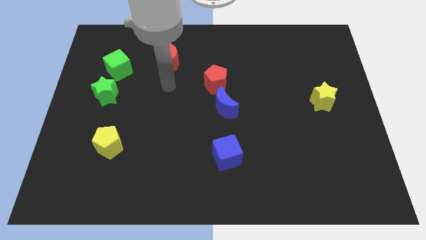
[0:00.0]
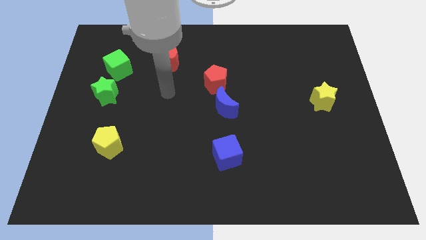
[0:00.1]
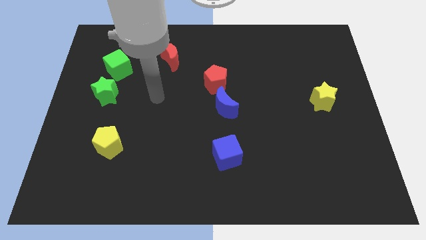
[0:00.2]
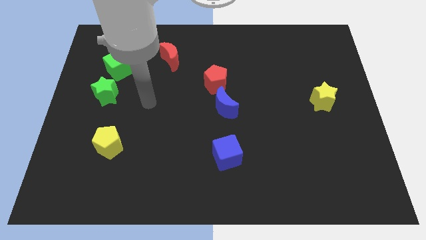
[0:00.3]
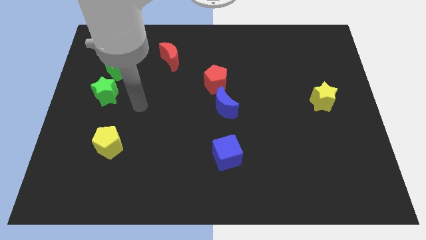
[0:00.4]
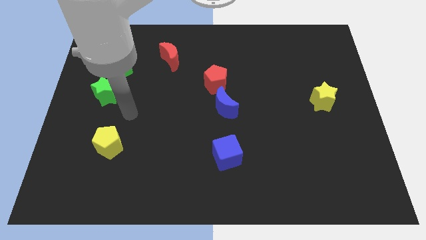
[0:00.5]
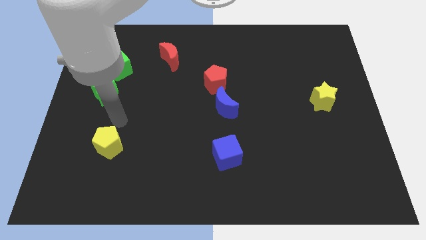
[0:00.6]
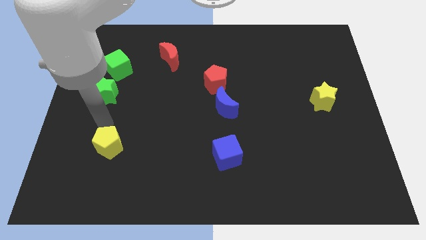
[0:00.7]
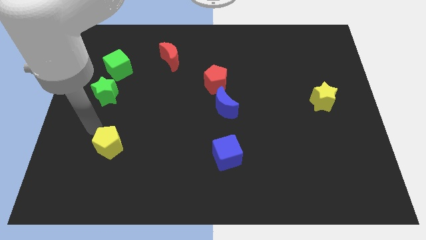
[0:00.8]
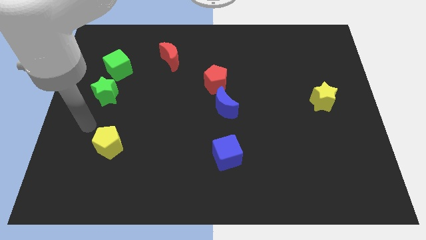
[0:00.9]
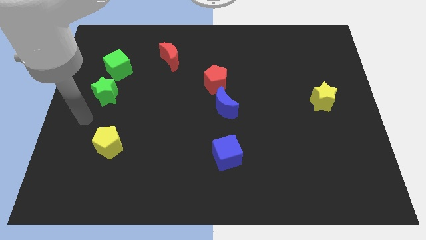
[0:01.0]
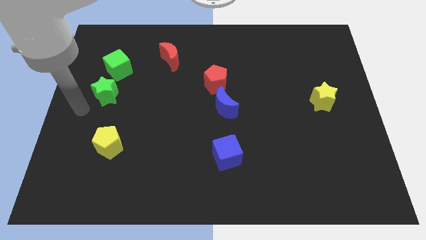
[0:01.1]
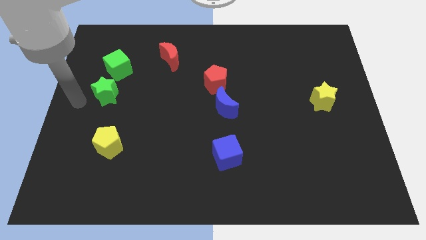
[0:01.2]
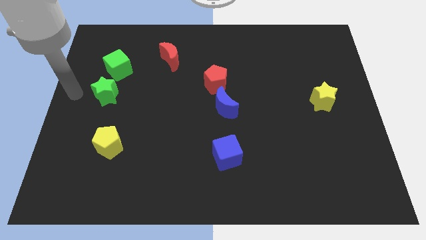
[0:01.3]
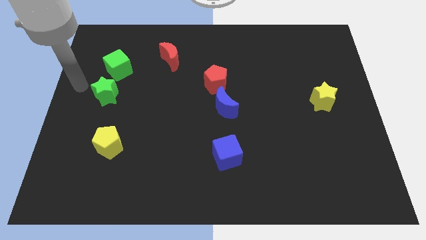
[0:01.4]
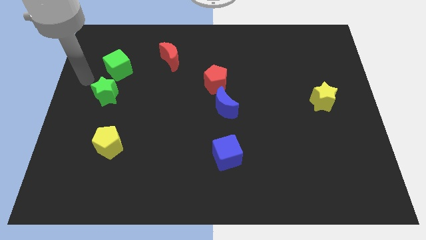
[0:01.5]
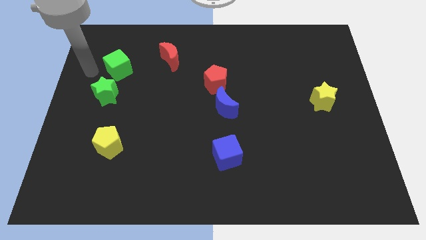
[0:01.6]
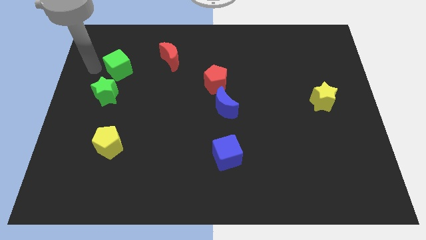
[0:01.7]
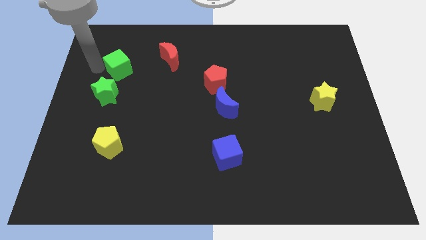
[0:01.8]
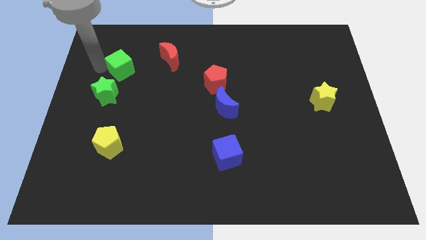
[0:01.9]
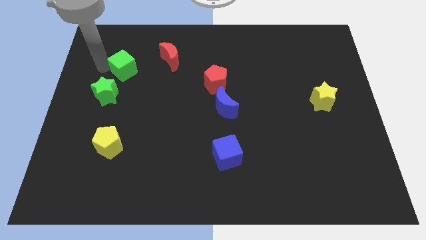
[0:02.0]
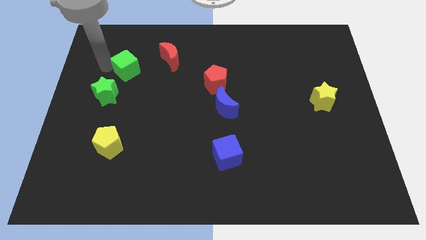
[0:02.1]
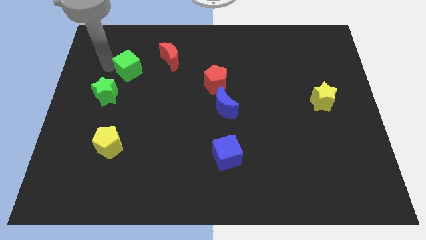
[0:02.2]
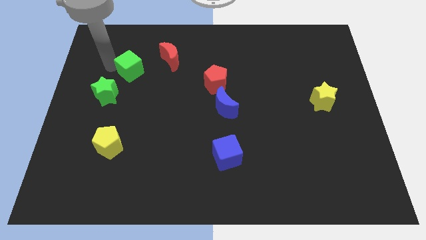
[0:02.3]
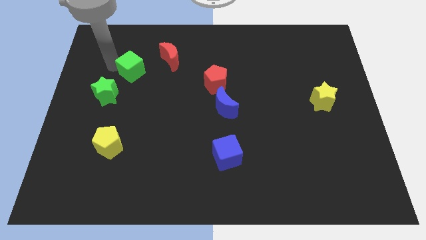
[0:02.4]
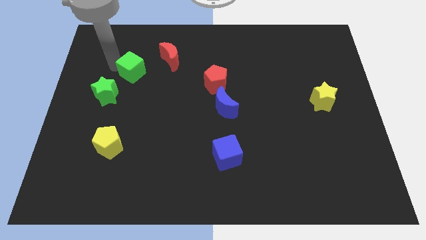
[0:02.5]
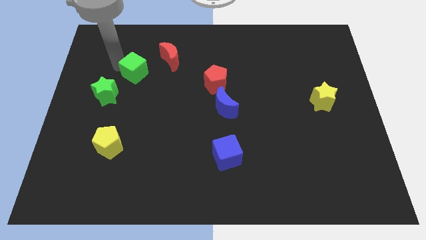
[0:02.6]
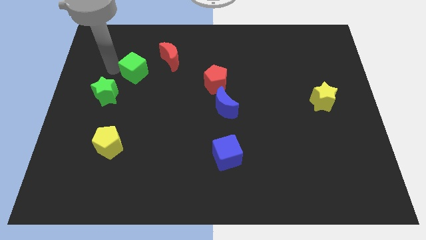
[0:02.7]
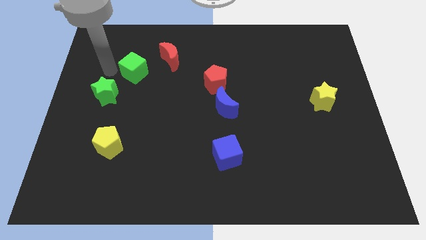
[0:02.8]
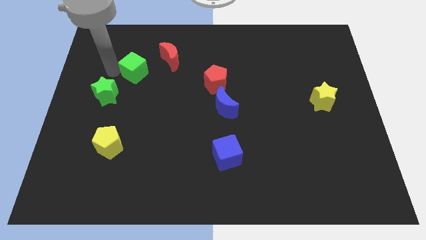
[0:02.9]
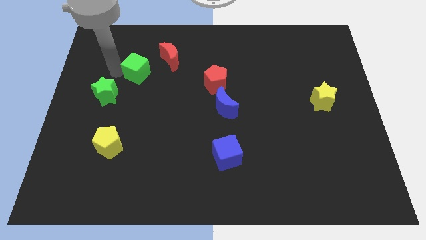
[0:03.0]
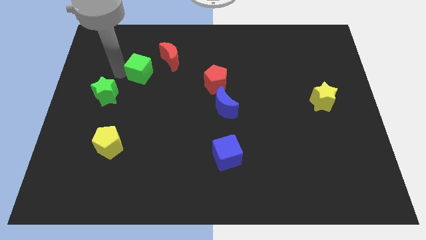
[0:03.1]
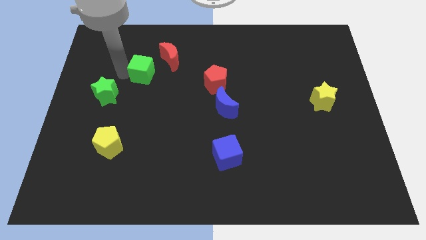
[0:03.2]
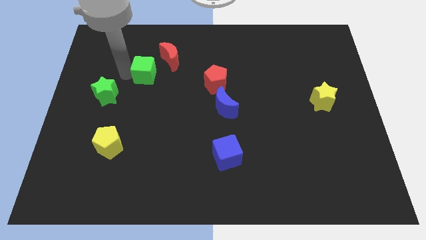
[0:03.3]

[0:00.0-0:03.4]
slightly push the green cube to the right

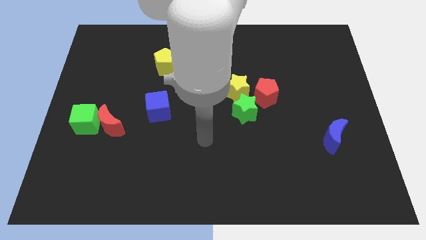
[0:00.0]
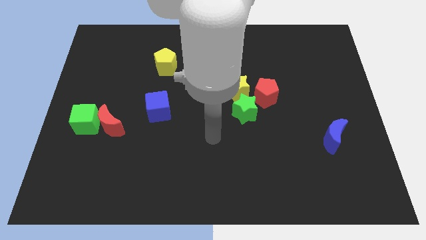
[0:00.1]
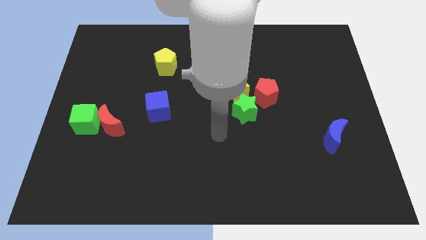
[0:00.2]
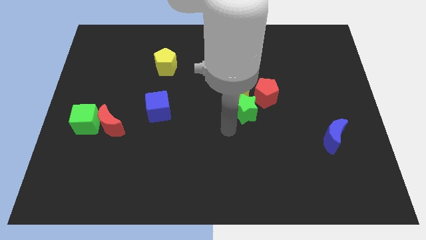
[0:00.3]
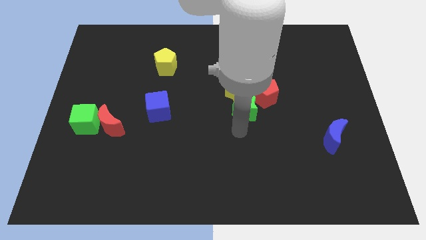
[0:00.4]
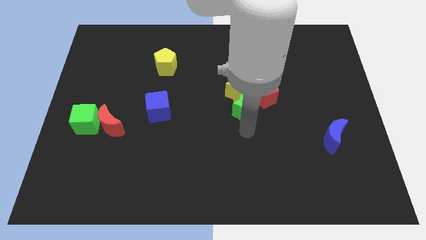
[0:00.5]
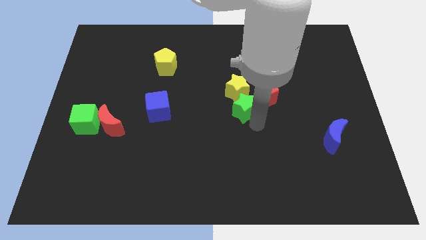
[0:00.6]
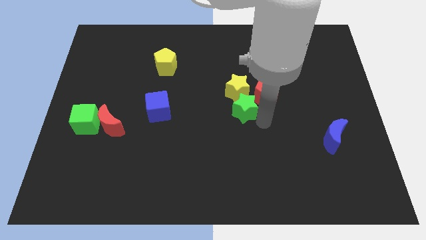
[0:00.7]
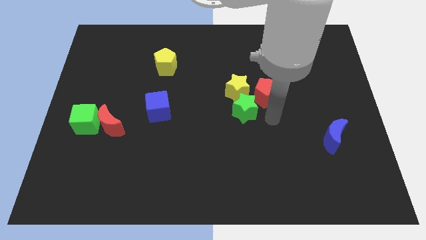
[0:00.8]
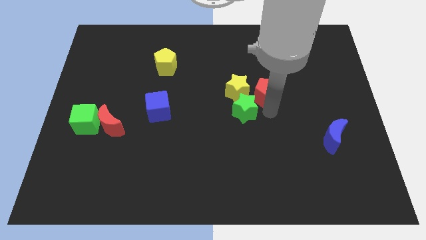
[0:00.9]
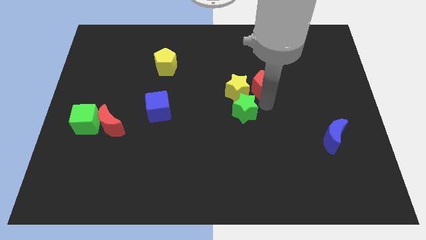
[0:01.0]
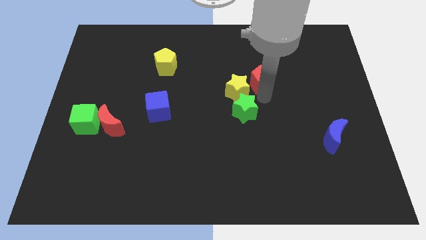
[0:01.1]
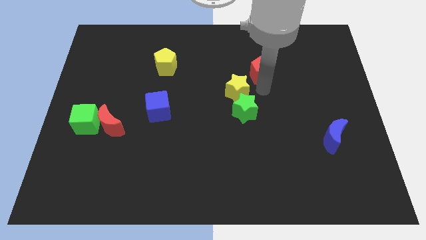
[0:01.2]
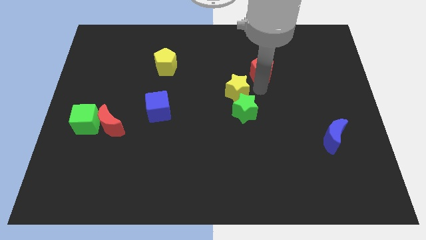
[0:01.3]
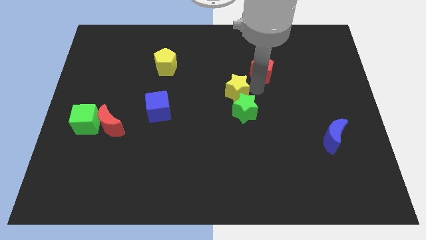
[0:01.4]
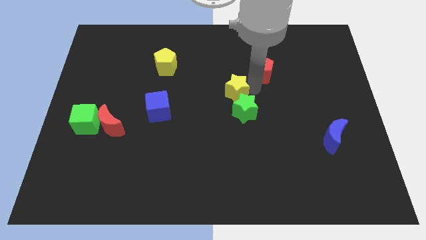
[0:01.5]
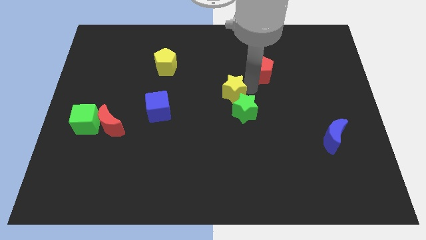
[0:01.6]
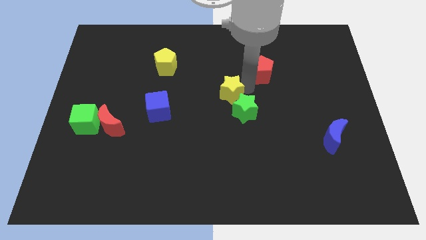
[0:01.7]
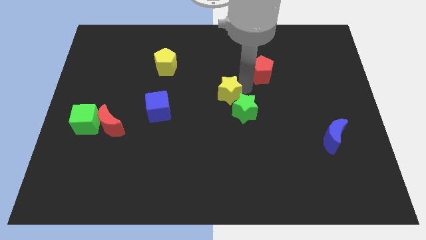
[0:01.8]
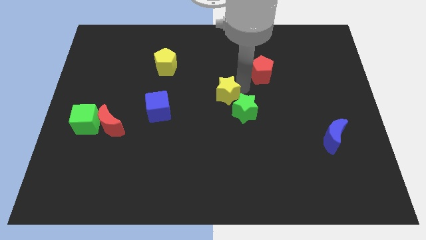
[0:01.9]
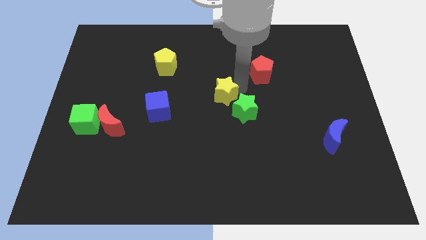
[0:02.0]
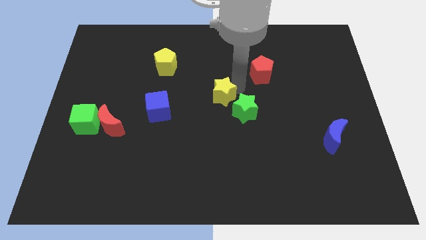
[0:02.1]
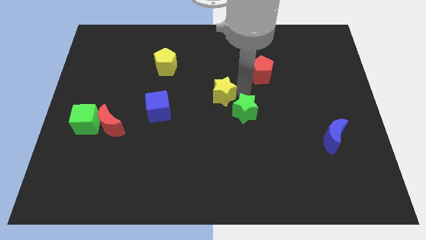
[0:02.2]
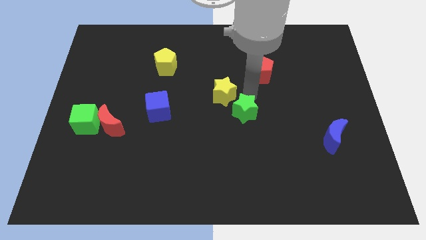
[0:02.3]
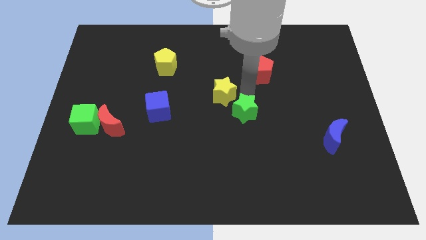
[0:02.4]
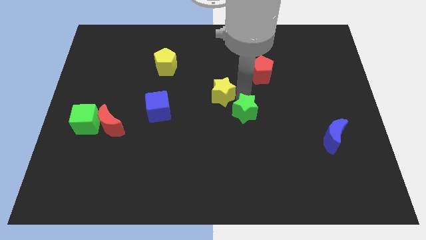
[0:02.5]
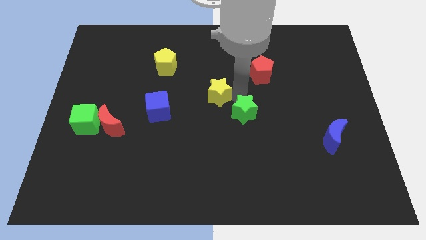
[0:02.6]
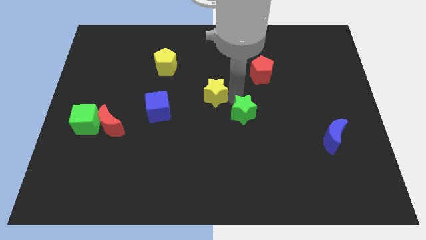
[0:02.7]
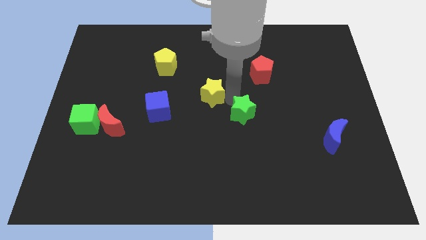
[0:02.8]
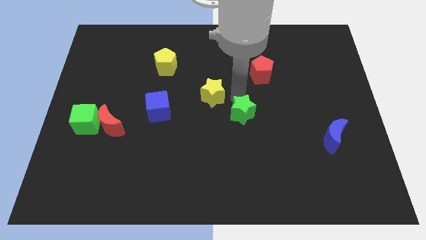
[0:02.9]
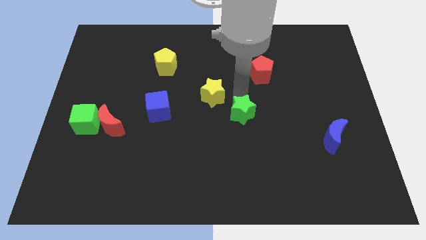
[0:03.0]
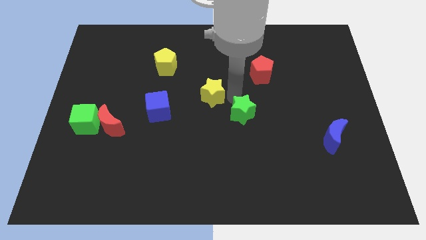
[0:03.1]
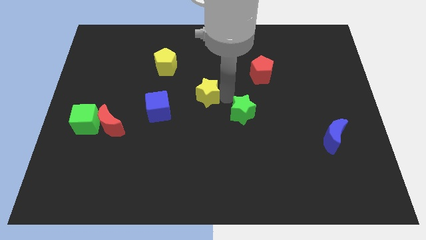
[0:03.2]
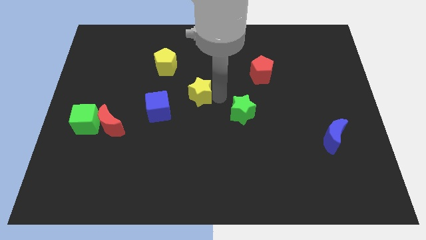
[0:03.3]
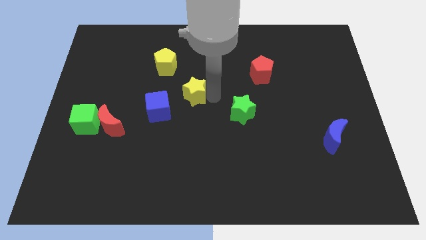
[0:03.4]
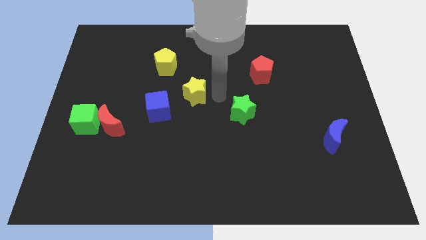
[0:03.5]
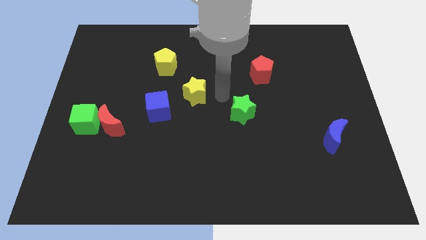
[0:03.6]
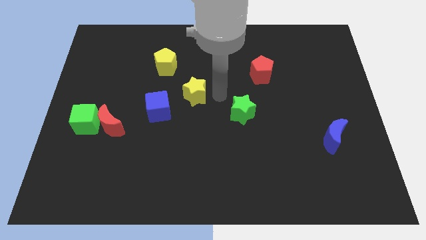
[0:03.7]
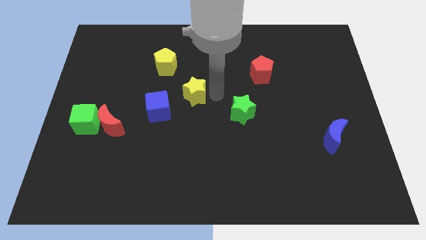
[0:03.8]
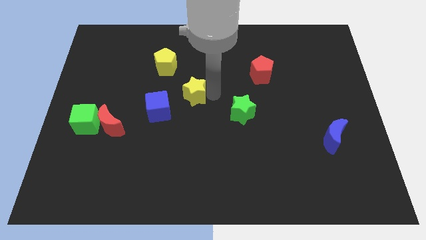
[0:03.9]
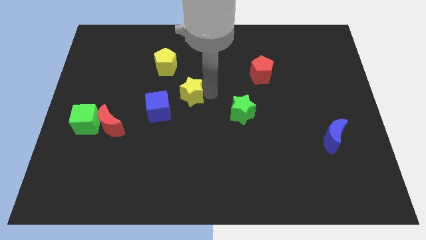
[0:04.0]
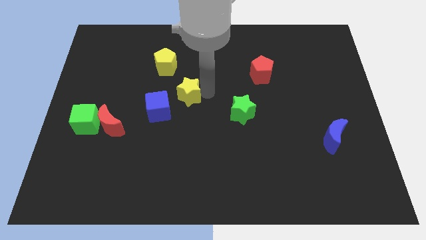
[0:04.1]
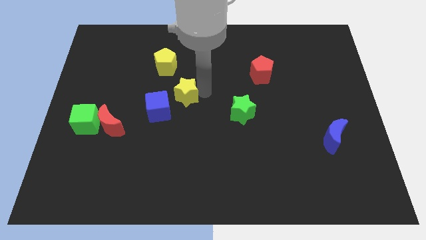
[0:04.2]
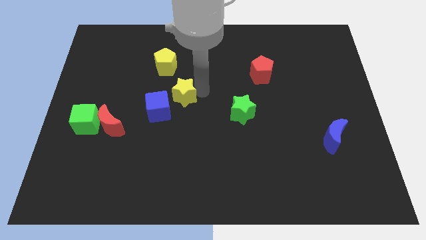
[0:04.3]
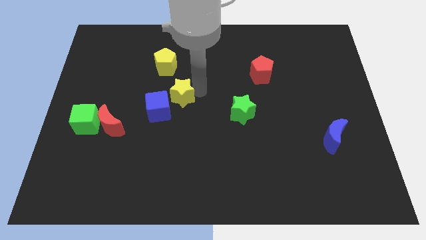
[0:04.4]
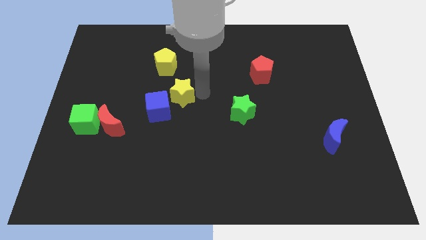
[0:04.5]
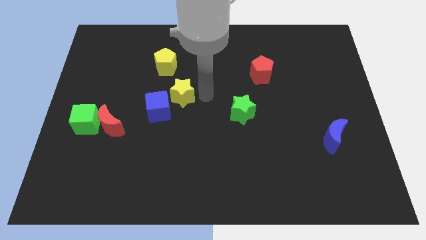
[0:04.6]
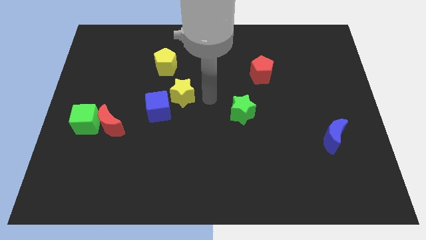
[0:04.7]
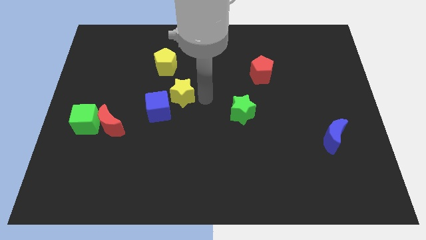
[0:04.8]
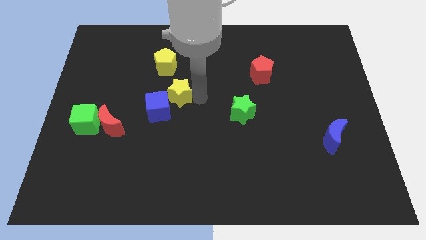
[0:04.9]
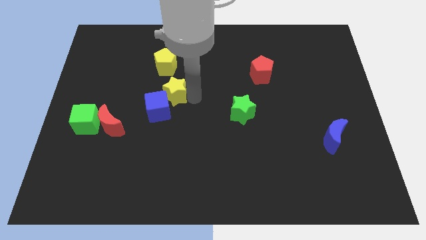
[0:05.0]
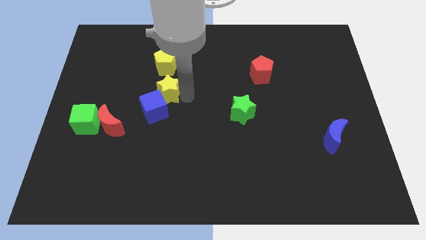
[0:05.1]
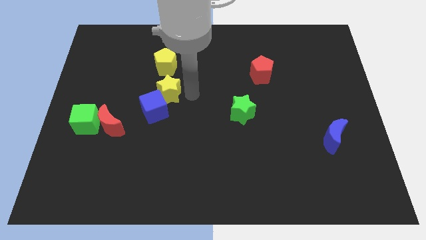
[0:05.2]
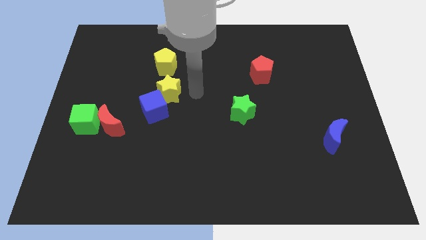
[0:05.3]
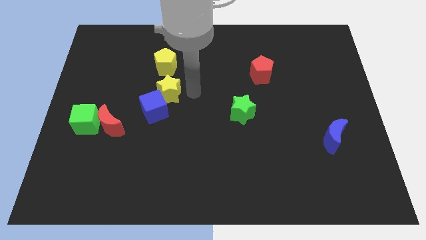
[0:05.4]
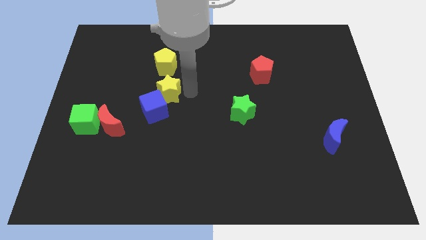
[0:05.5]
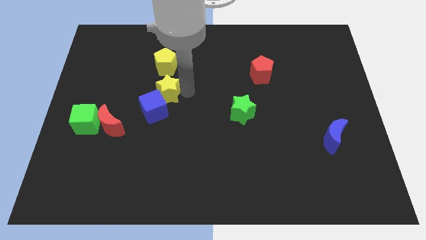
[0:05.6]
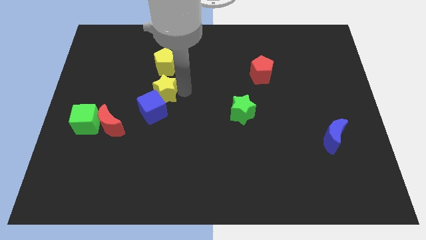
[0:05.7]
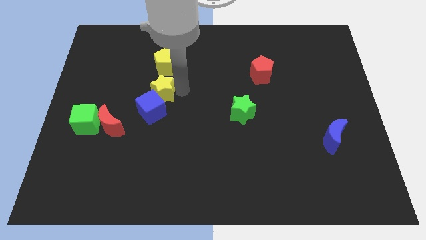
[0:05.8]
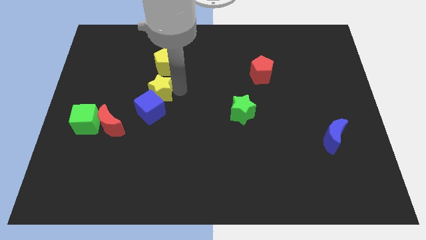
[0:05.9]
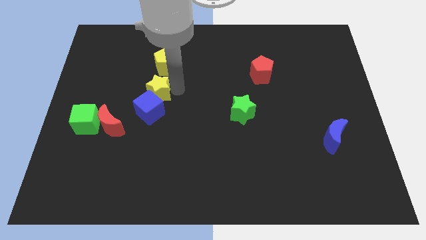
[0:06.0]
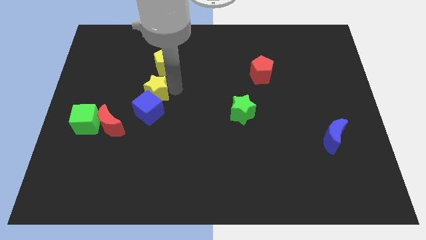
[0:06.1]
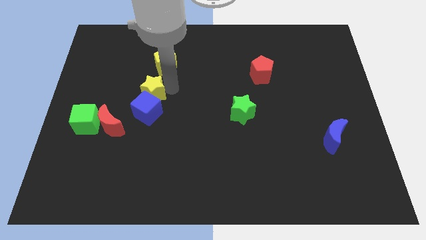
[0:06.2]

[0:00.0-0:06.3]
push the yellow star left
